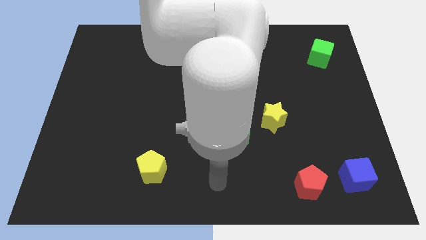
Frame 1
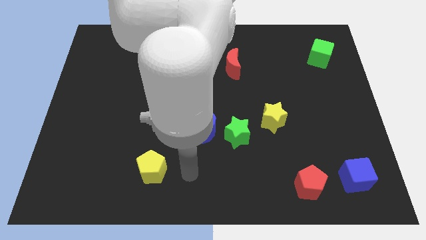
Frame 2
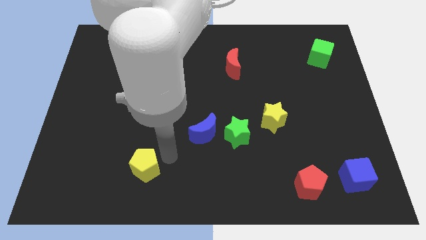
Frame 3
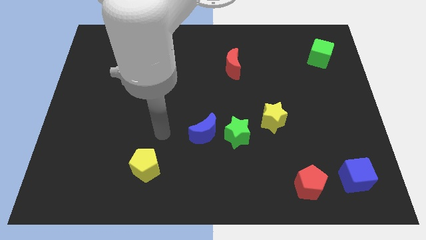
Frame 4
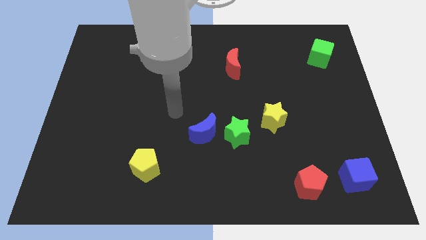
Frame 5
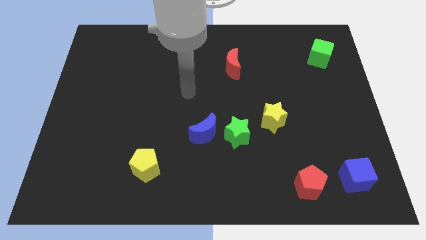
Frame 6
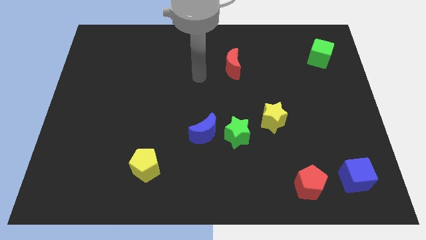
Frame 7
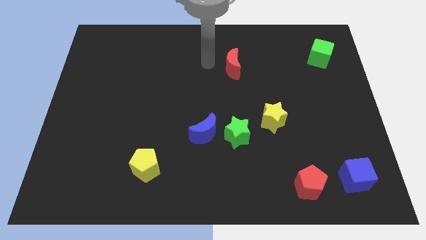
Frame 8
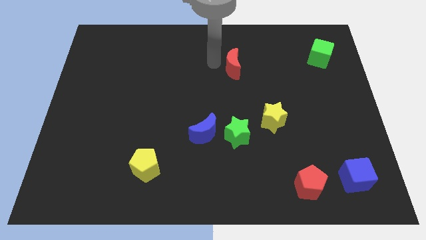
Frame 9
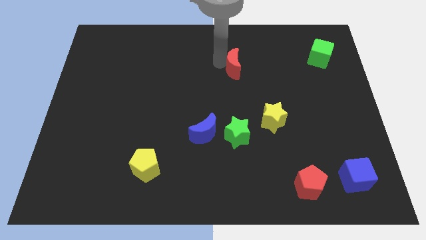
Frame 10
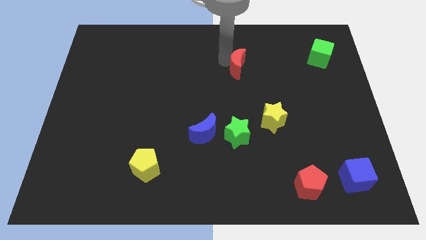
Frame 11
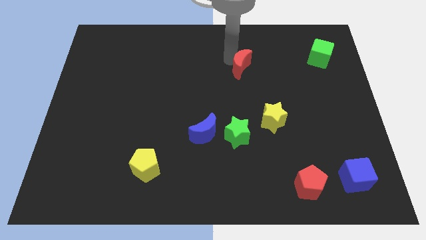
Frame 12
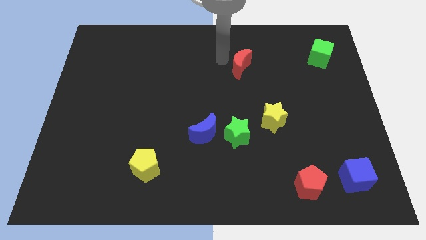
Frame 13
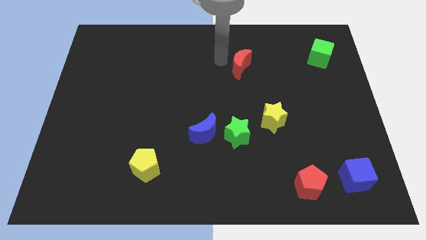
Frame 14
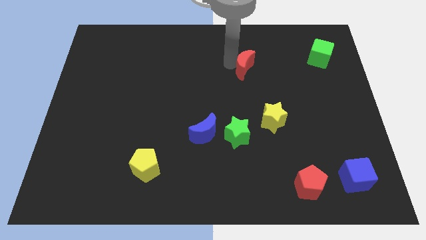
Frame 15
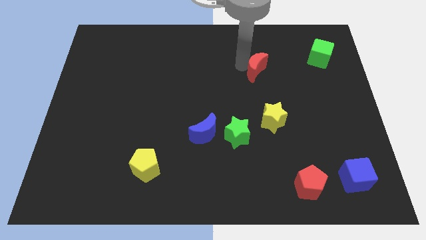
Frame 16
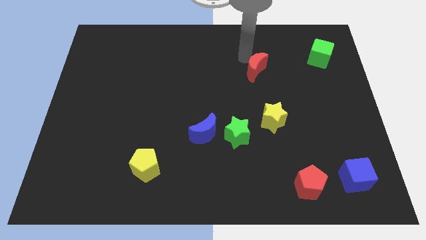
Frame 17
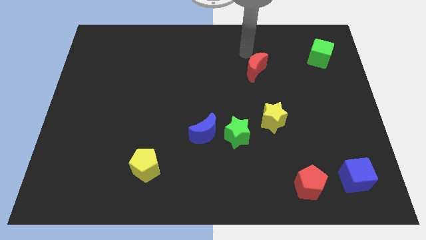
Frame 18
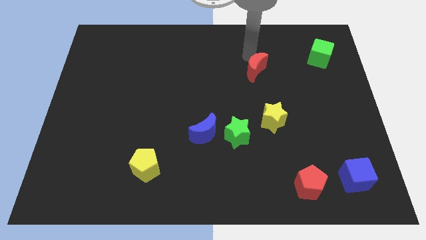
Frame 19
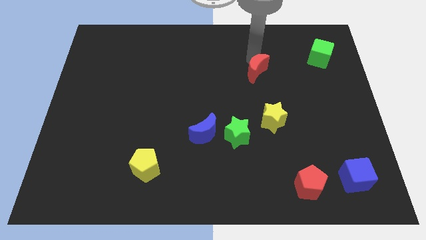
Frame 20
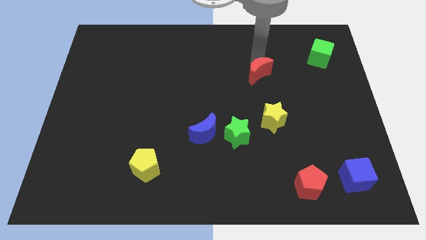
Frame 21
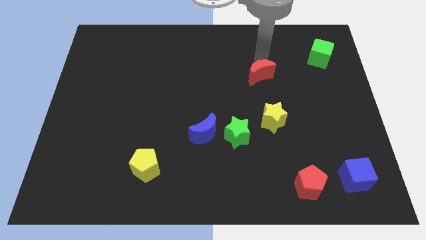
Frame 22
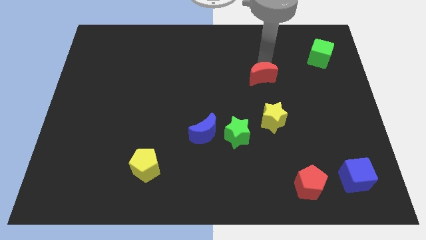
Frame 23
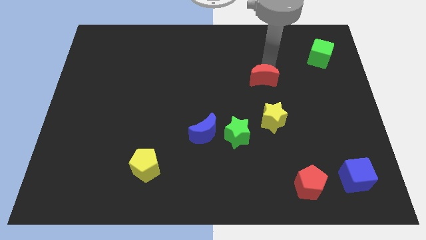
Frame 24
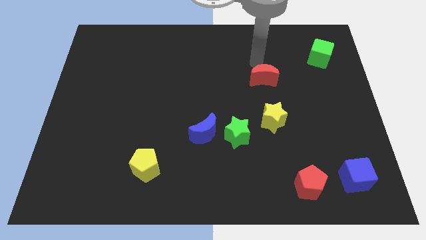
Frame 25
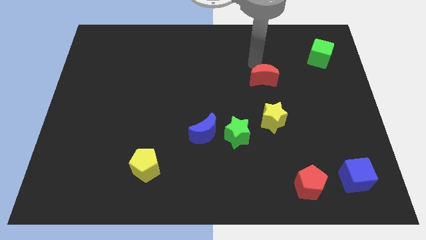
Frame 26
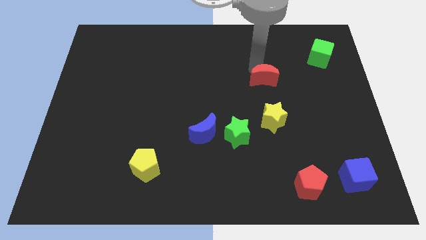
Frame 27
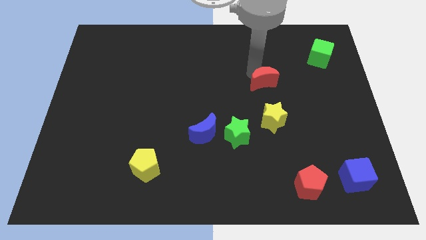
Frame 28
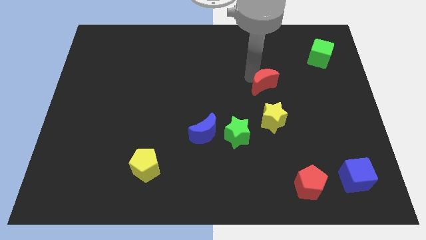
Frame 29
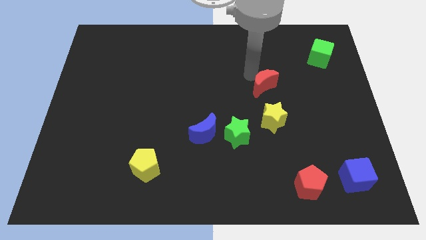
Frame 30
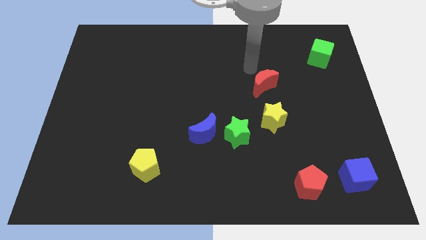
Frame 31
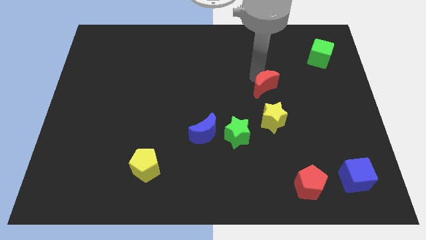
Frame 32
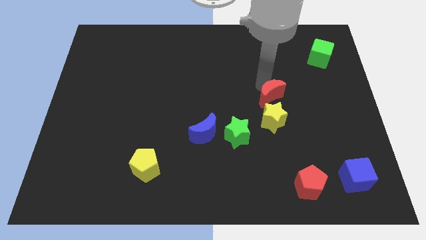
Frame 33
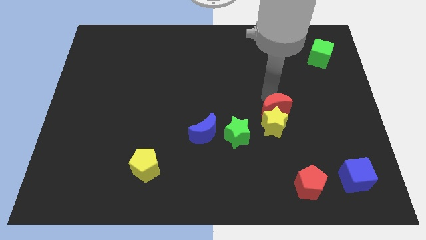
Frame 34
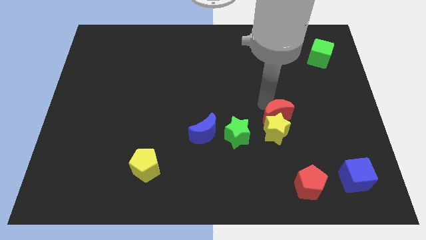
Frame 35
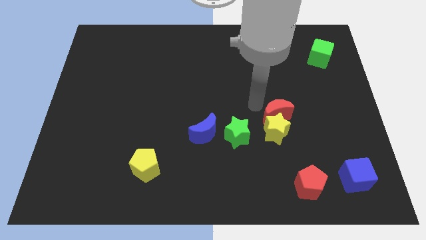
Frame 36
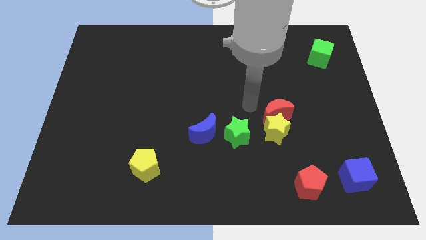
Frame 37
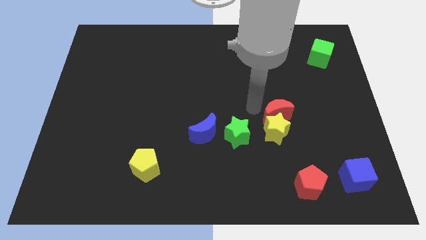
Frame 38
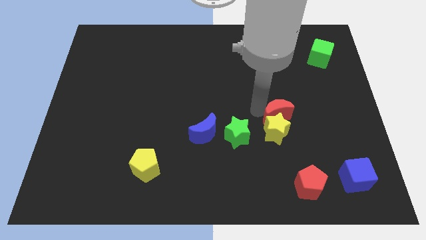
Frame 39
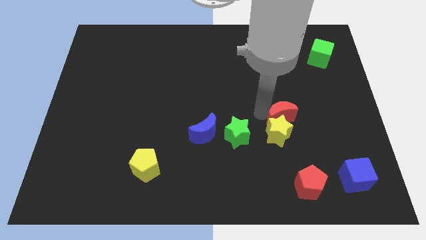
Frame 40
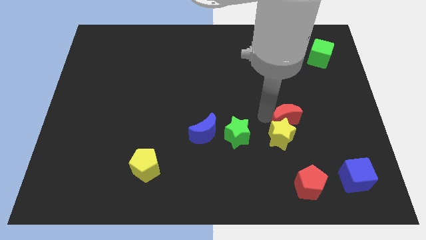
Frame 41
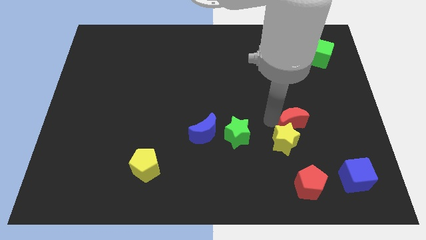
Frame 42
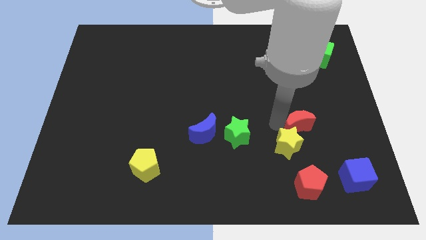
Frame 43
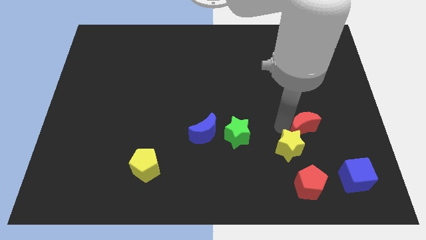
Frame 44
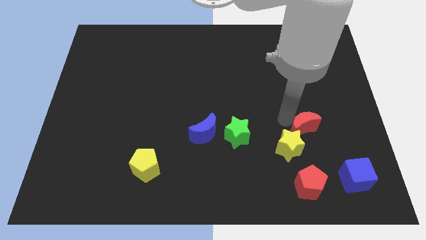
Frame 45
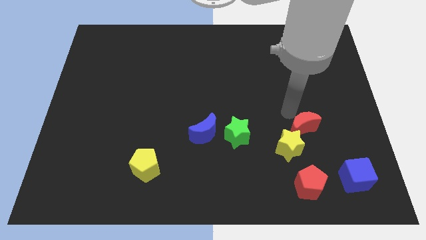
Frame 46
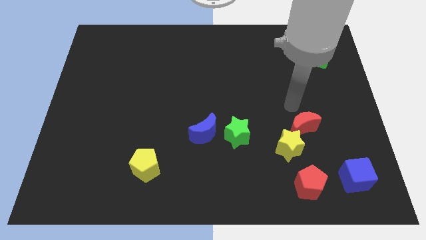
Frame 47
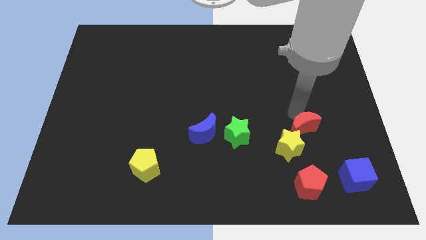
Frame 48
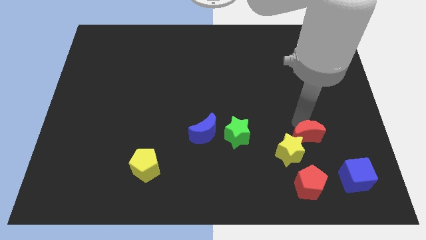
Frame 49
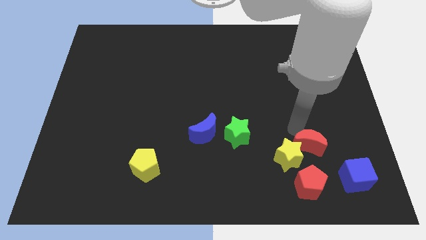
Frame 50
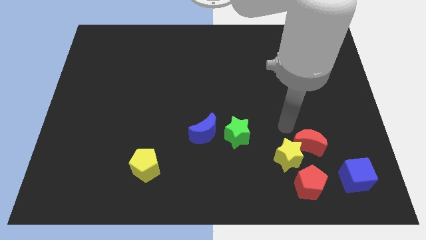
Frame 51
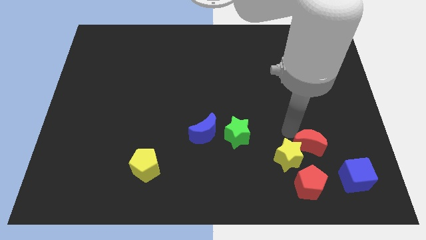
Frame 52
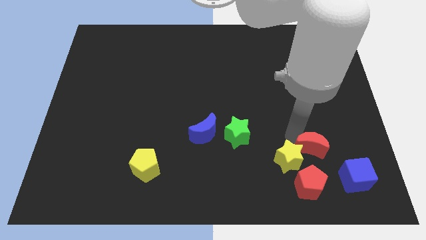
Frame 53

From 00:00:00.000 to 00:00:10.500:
move the red moon to the top right side of the red pentagon

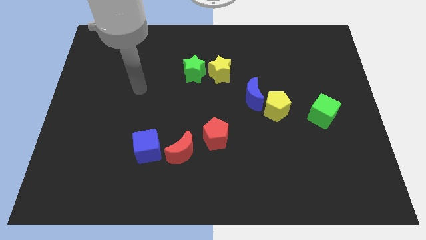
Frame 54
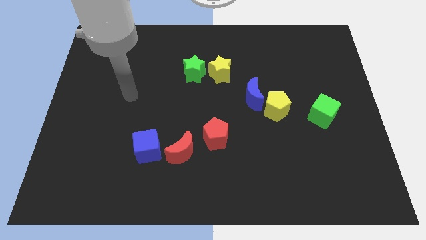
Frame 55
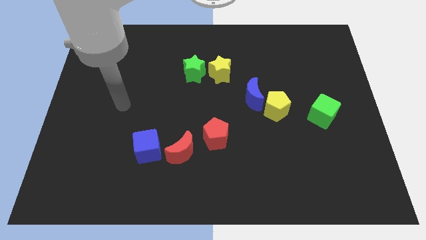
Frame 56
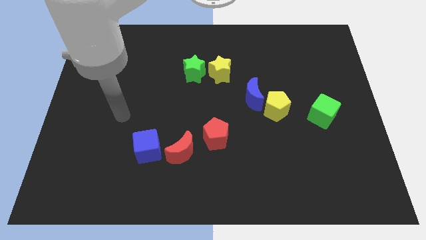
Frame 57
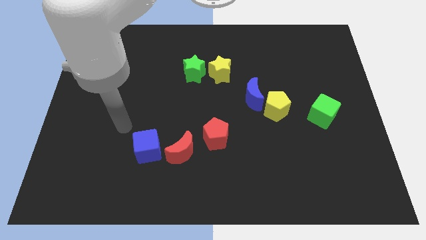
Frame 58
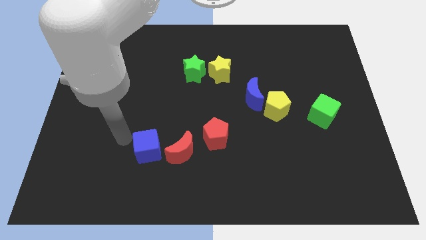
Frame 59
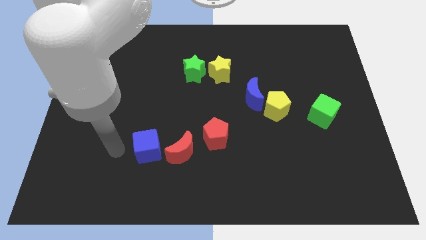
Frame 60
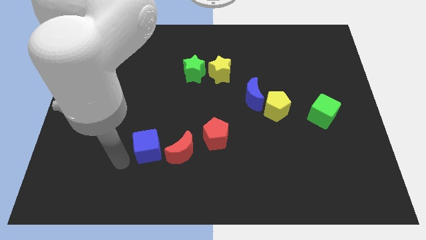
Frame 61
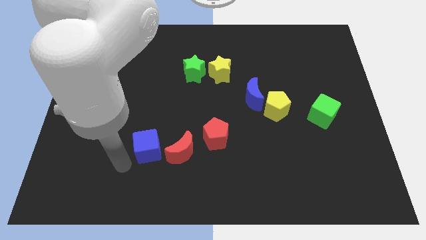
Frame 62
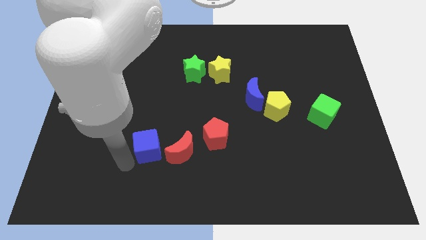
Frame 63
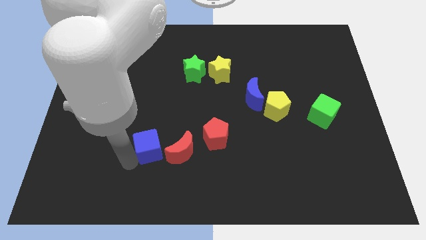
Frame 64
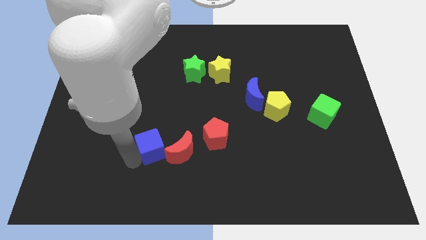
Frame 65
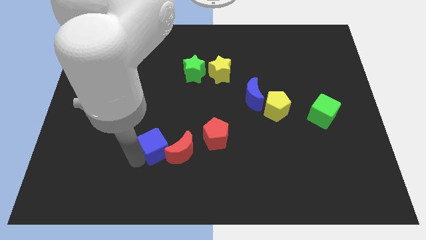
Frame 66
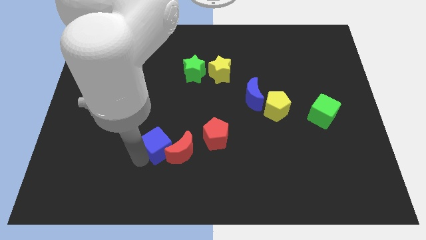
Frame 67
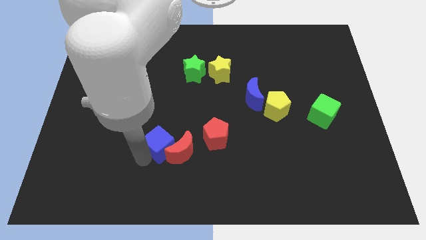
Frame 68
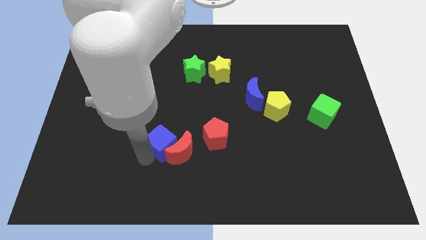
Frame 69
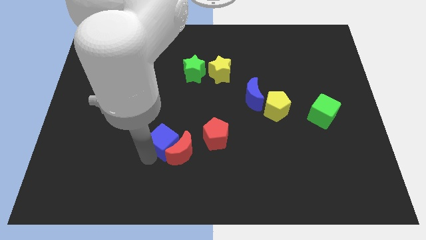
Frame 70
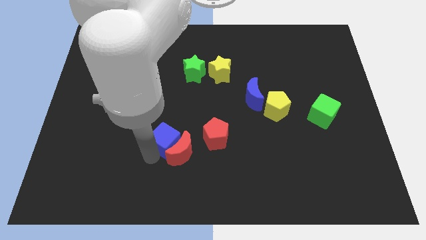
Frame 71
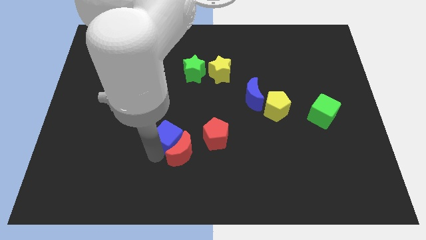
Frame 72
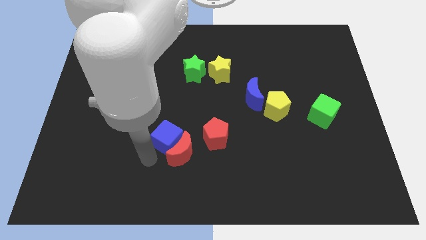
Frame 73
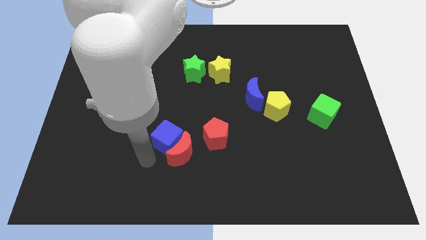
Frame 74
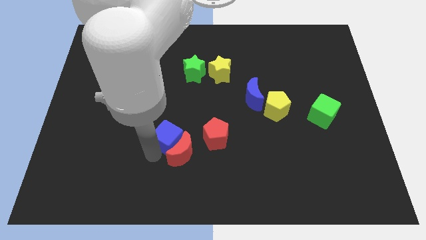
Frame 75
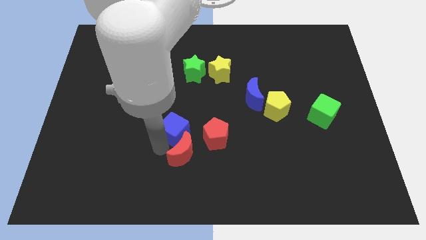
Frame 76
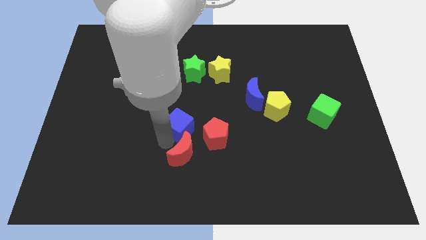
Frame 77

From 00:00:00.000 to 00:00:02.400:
slide the blue cube diagonally up and to the left of the red pentagon
